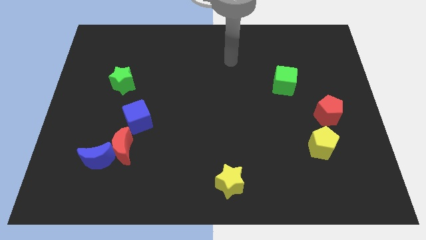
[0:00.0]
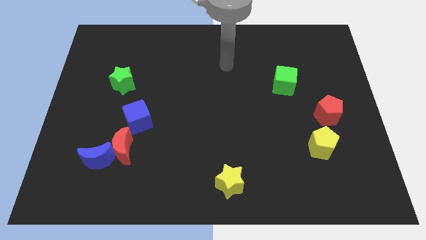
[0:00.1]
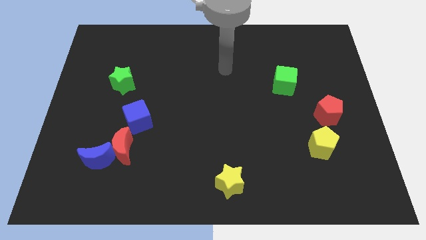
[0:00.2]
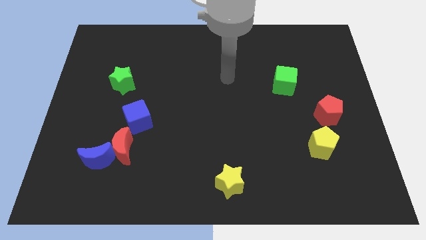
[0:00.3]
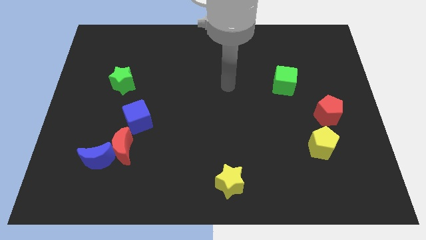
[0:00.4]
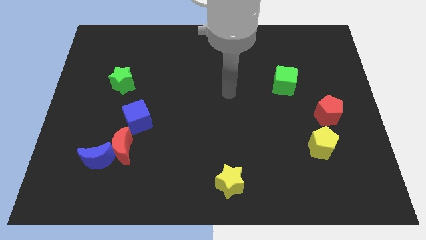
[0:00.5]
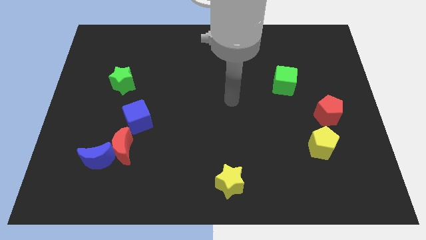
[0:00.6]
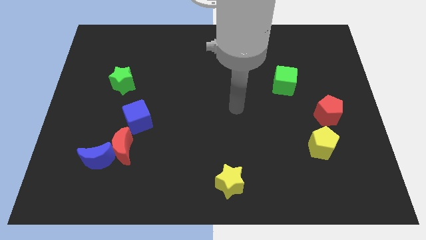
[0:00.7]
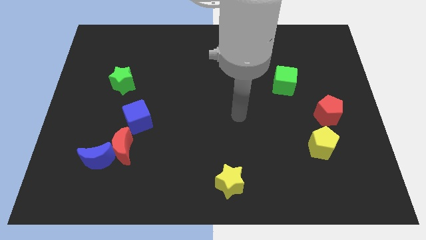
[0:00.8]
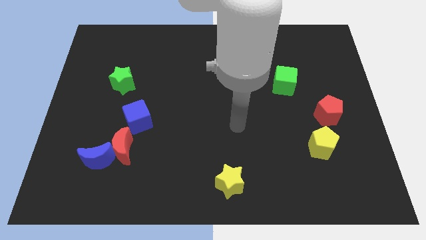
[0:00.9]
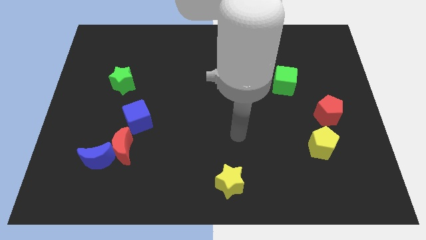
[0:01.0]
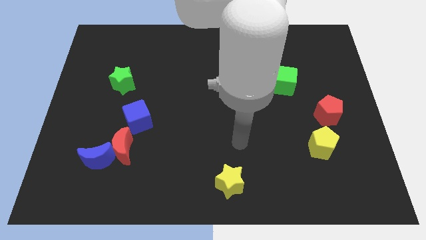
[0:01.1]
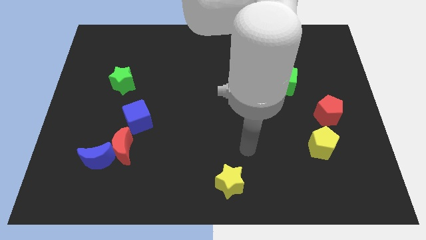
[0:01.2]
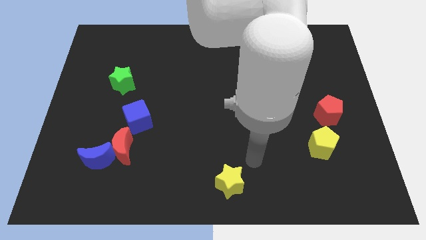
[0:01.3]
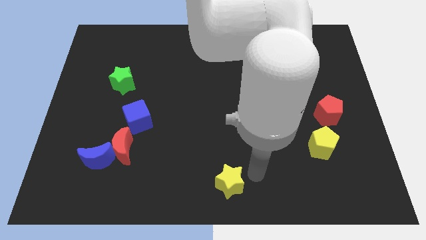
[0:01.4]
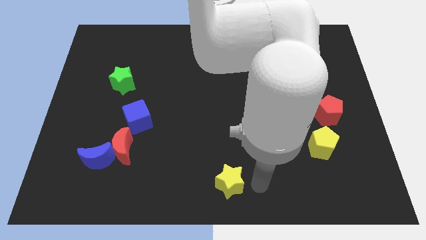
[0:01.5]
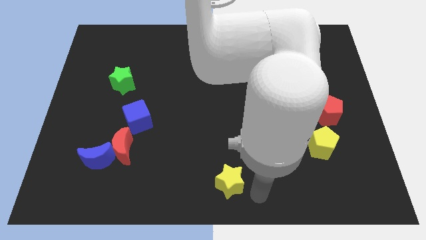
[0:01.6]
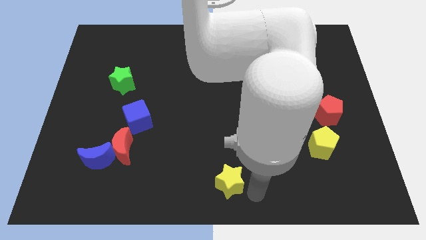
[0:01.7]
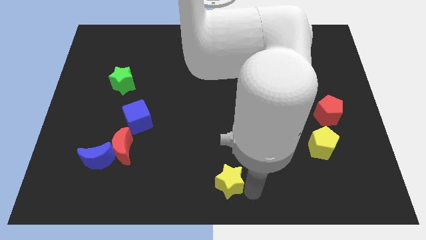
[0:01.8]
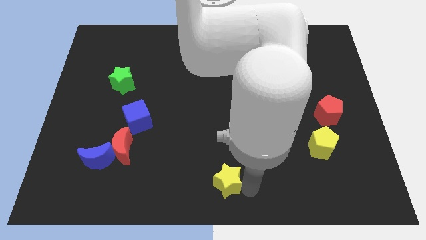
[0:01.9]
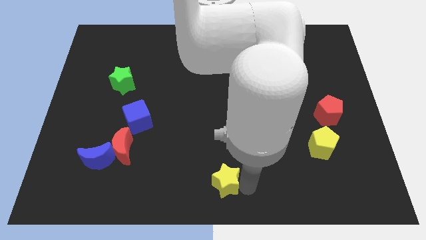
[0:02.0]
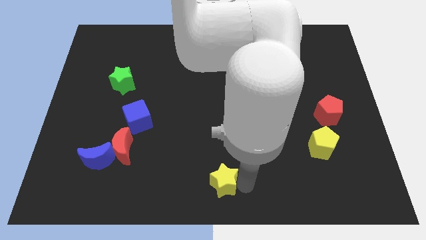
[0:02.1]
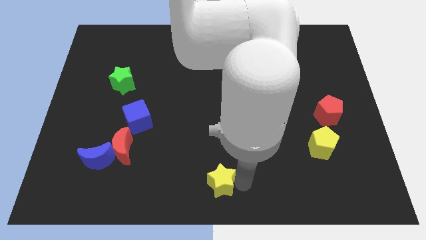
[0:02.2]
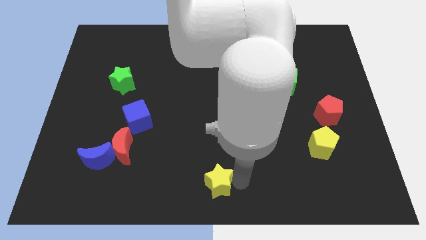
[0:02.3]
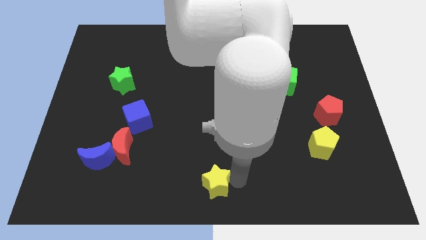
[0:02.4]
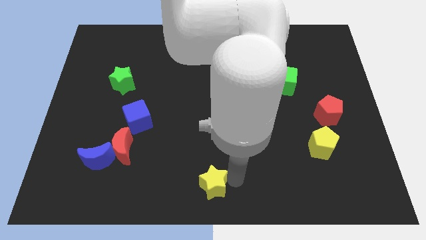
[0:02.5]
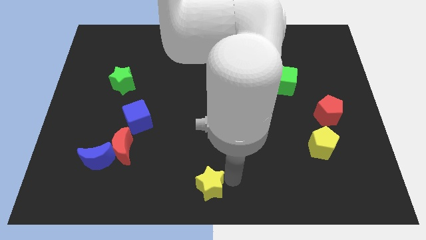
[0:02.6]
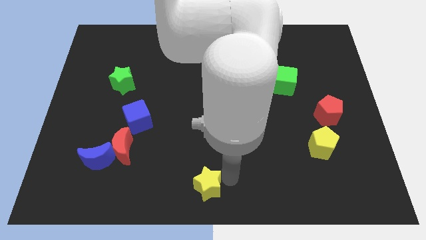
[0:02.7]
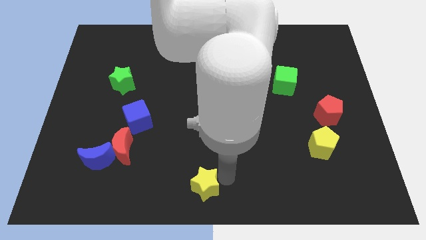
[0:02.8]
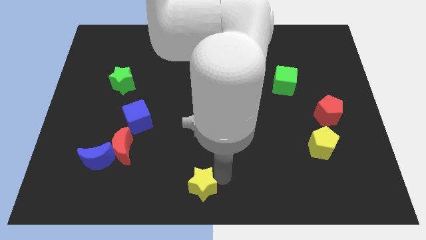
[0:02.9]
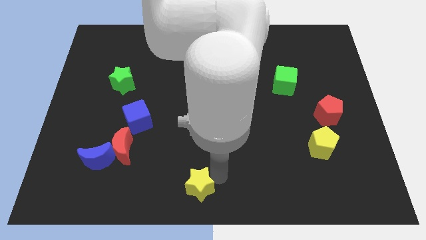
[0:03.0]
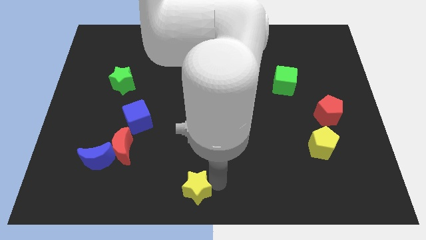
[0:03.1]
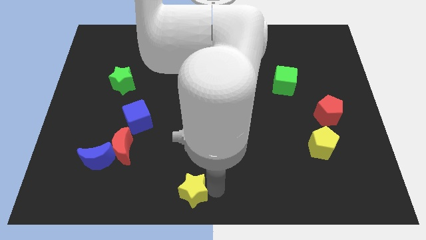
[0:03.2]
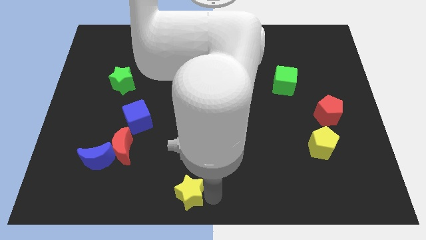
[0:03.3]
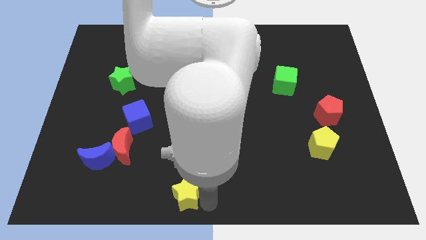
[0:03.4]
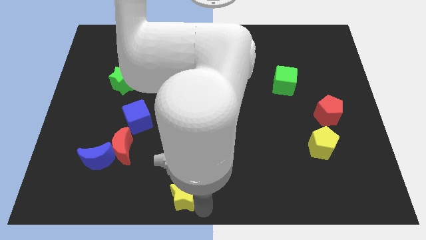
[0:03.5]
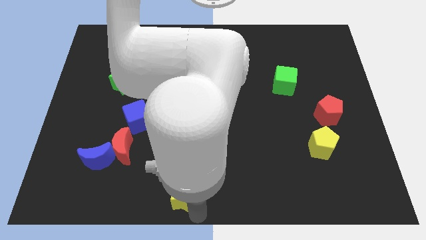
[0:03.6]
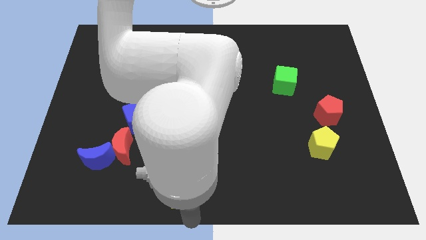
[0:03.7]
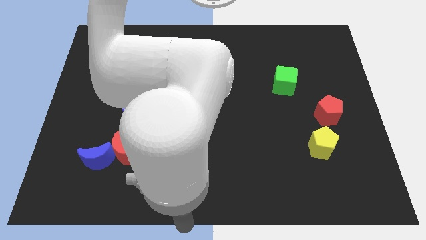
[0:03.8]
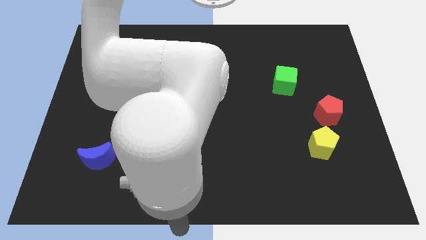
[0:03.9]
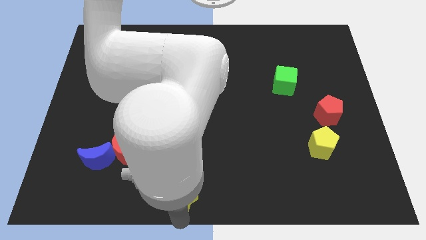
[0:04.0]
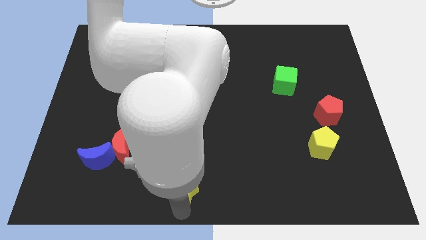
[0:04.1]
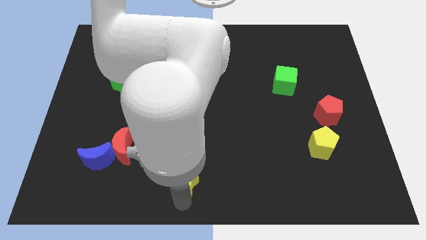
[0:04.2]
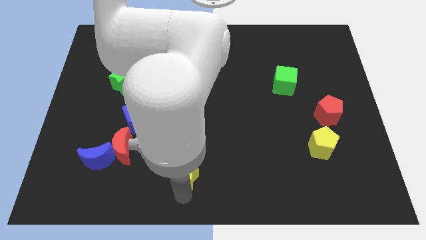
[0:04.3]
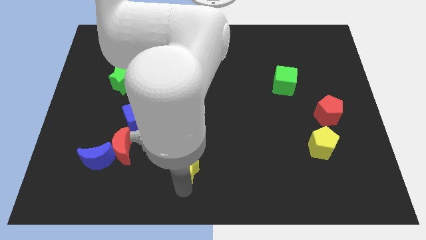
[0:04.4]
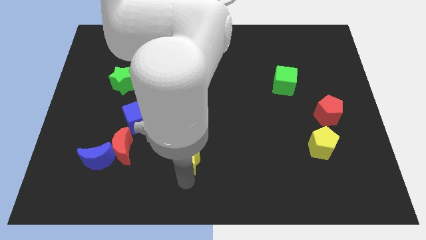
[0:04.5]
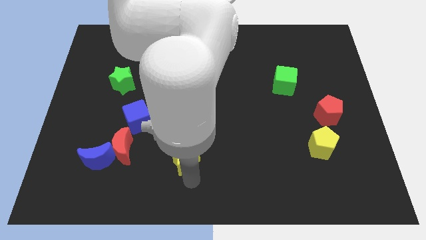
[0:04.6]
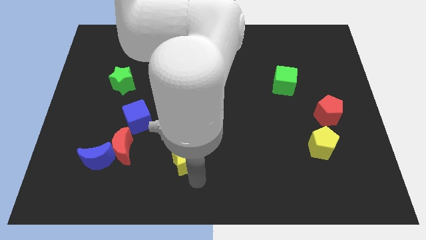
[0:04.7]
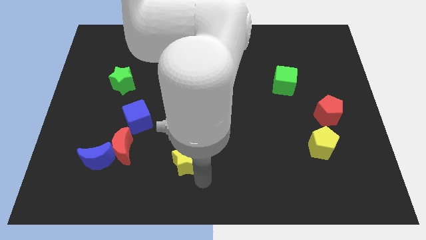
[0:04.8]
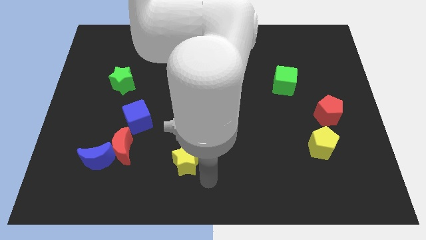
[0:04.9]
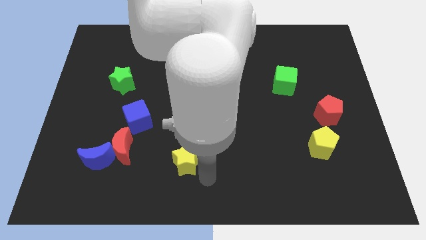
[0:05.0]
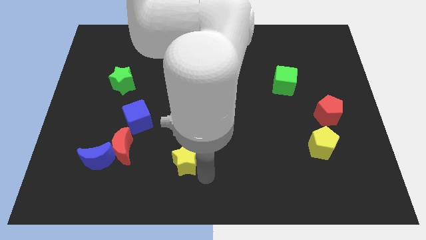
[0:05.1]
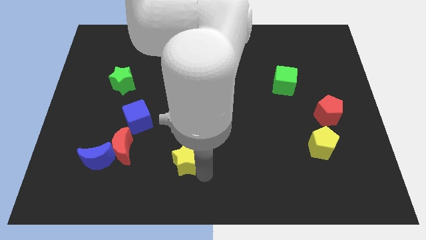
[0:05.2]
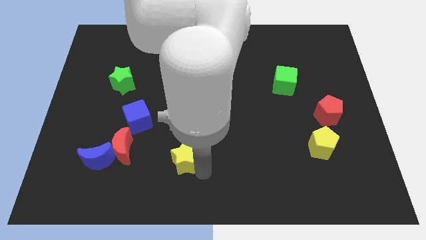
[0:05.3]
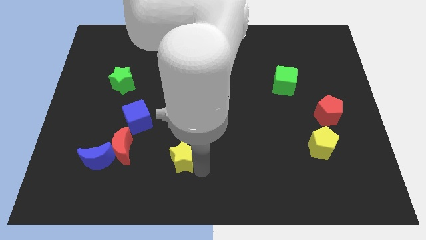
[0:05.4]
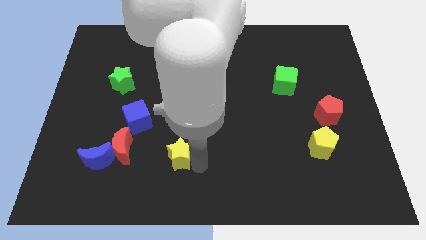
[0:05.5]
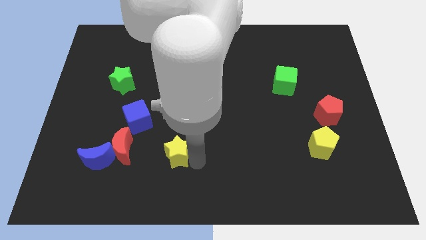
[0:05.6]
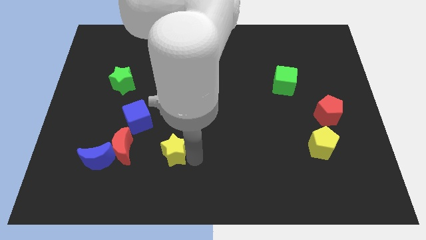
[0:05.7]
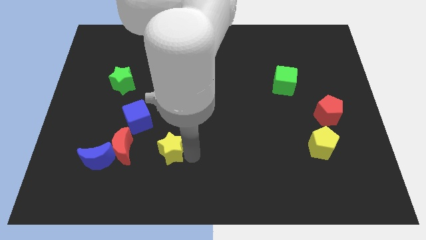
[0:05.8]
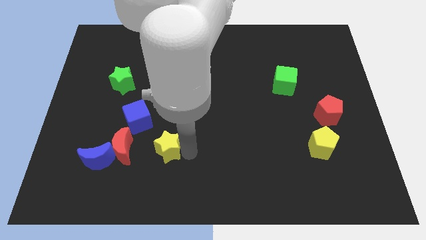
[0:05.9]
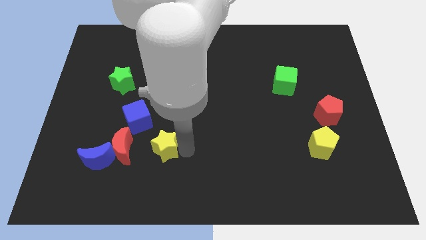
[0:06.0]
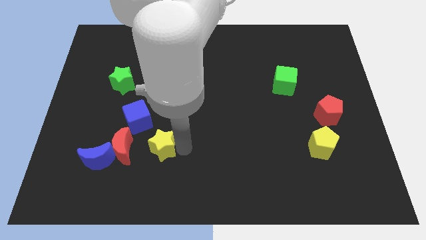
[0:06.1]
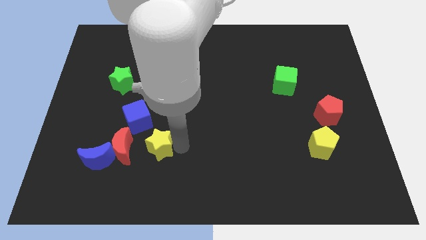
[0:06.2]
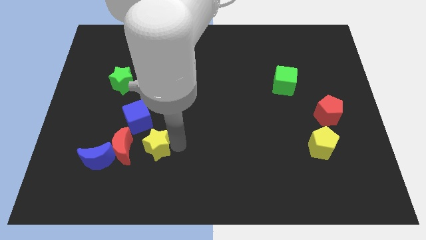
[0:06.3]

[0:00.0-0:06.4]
put the yellow star to the top right side of the red moon

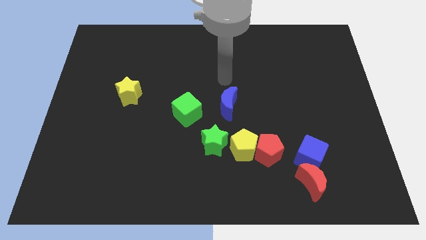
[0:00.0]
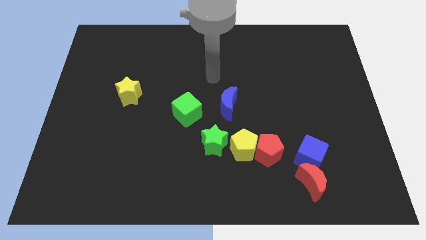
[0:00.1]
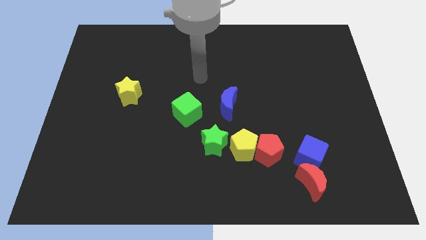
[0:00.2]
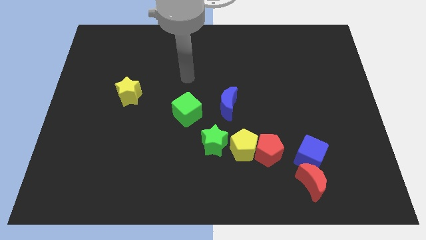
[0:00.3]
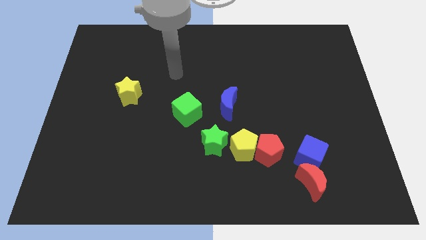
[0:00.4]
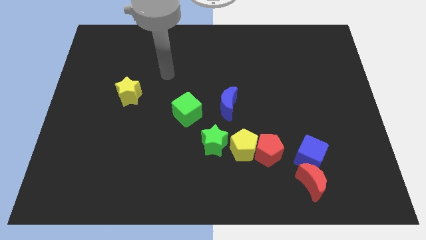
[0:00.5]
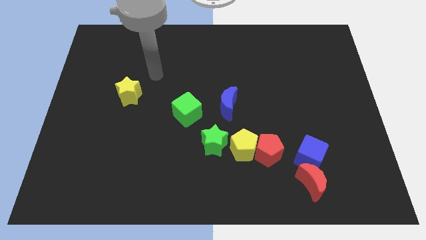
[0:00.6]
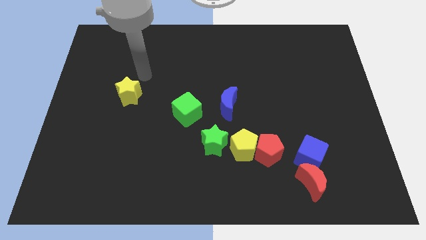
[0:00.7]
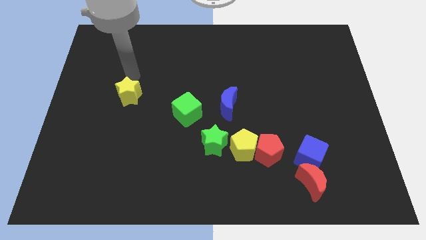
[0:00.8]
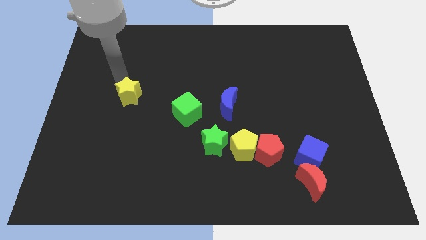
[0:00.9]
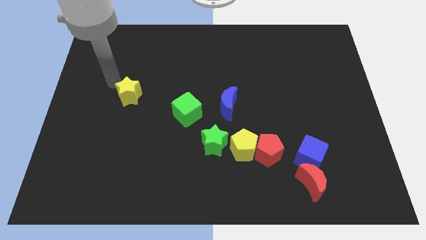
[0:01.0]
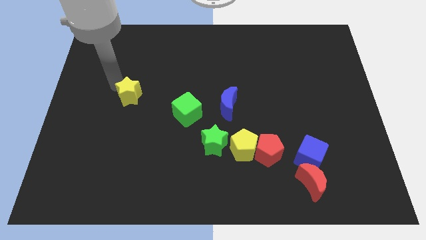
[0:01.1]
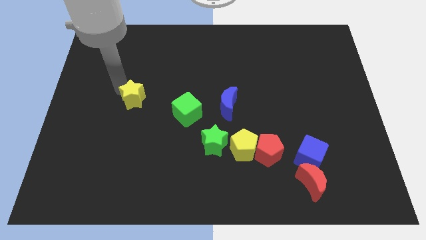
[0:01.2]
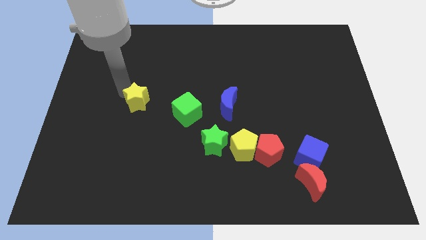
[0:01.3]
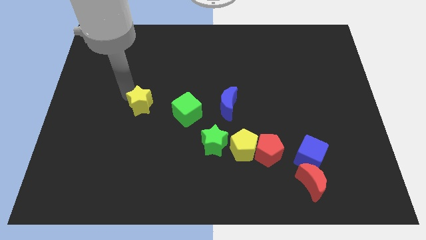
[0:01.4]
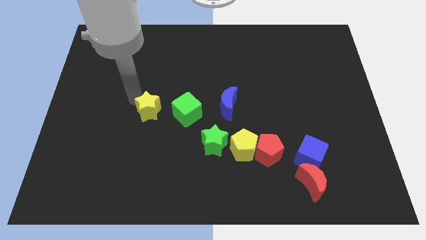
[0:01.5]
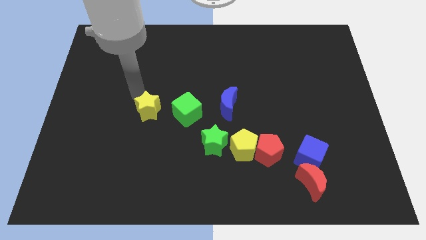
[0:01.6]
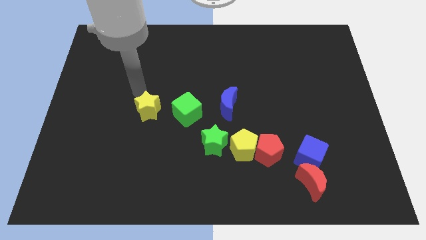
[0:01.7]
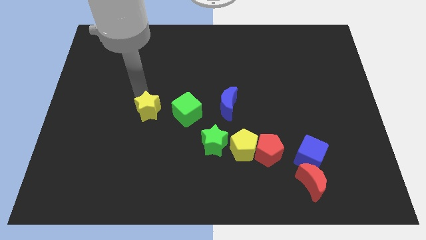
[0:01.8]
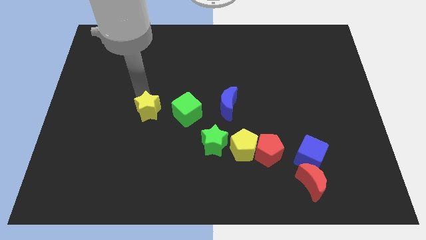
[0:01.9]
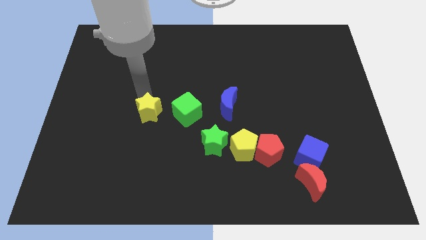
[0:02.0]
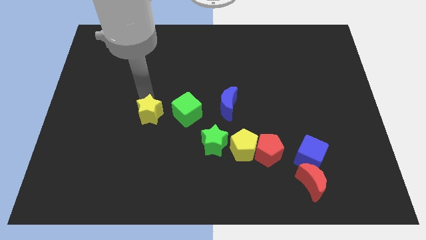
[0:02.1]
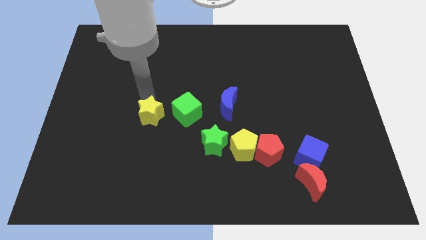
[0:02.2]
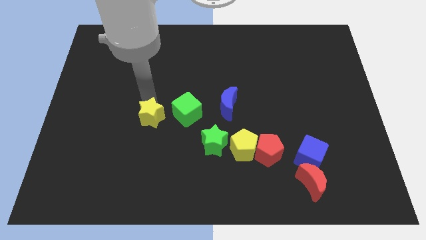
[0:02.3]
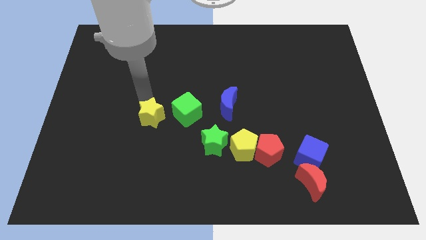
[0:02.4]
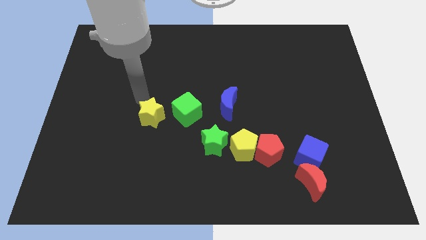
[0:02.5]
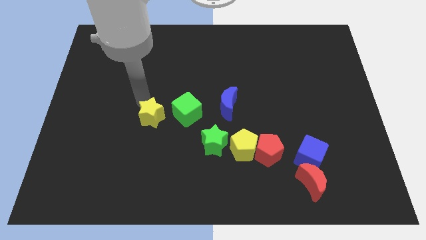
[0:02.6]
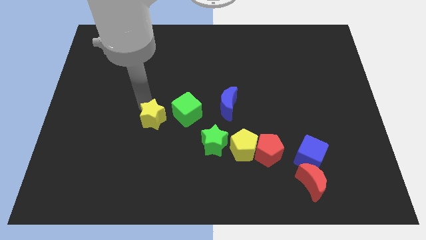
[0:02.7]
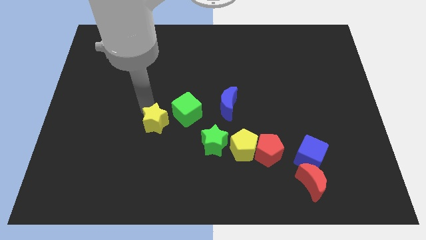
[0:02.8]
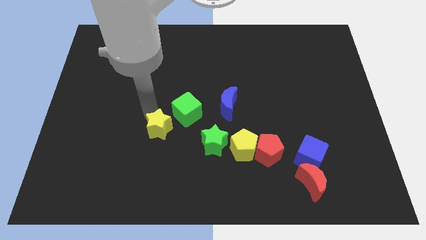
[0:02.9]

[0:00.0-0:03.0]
move the yellow star left of the green star
